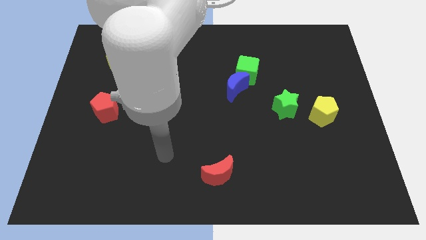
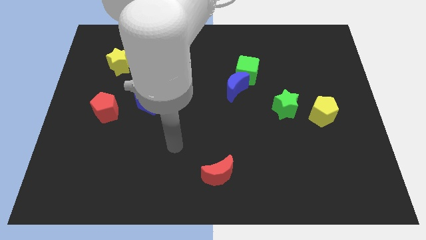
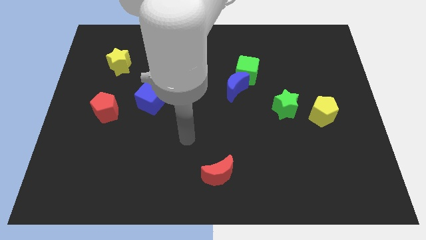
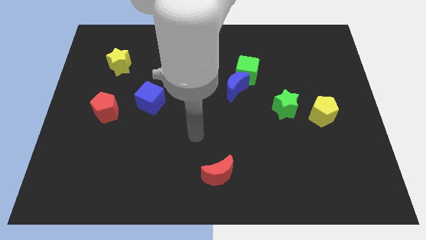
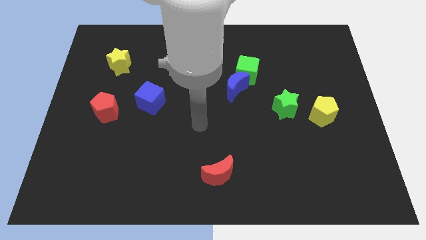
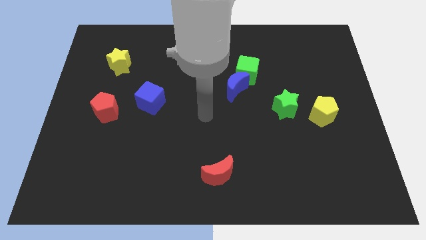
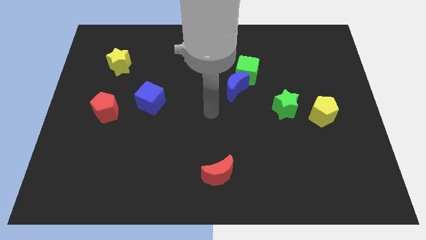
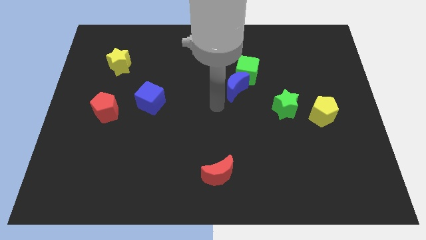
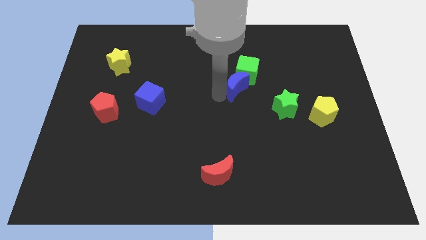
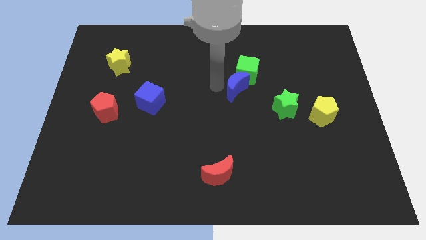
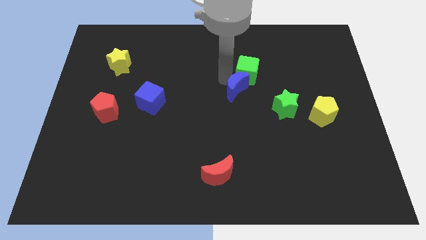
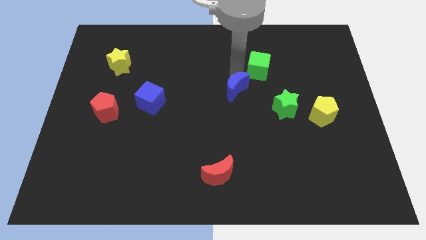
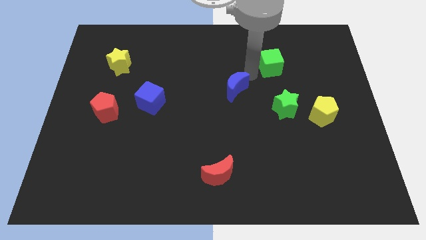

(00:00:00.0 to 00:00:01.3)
move the blue moon away from the green cube

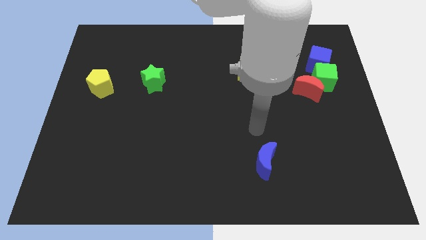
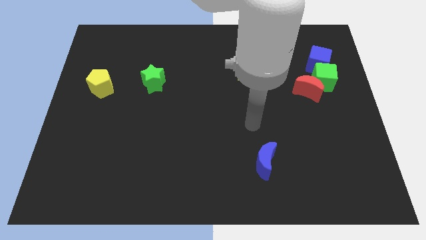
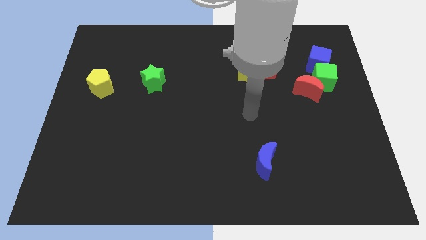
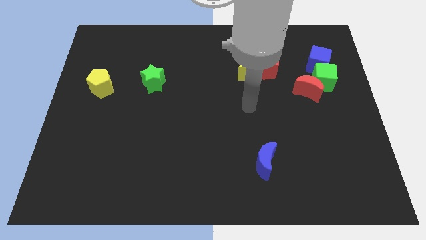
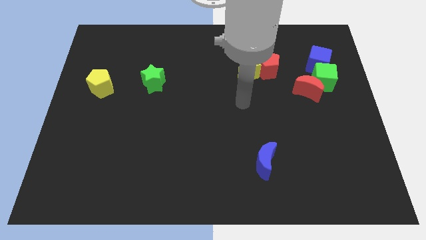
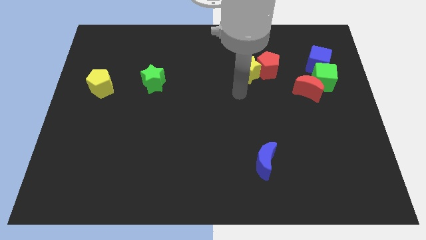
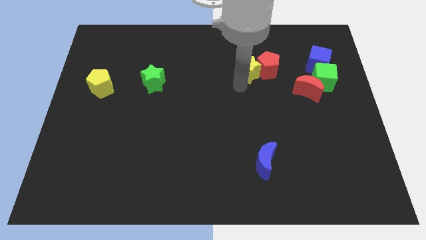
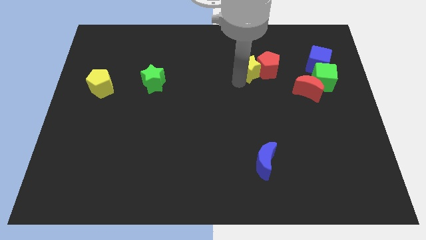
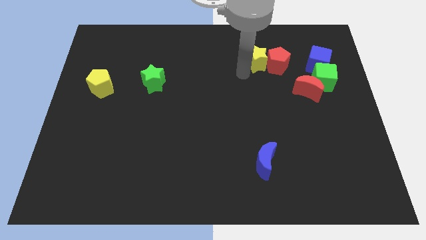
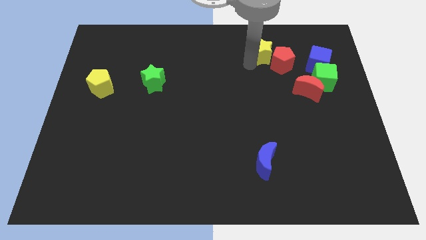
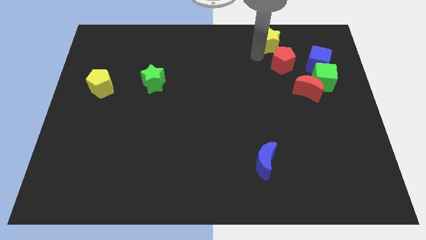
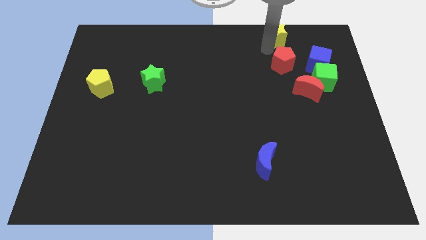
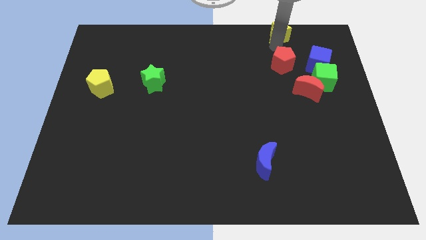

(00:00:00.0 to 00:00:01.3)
pull the red pentagon apart from the yellow star

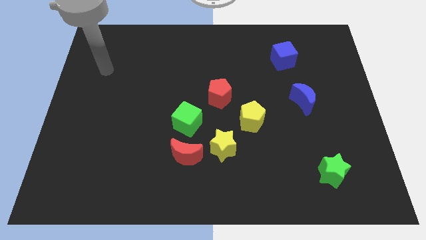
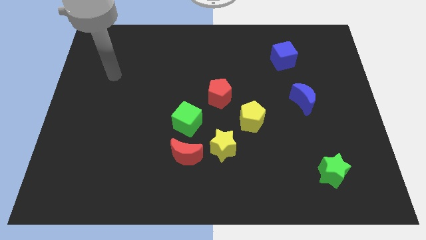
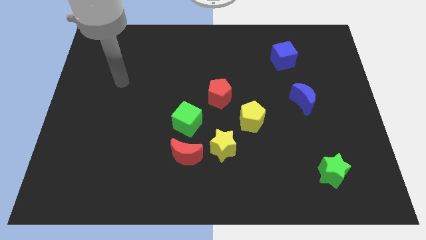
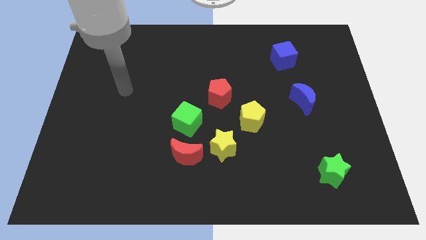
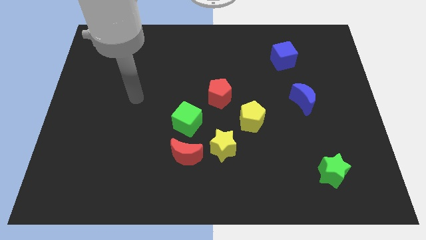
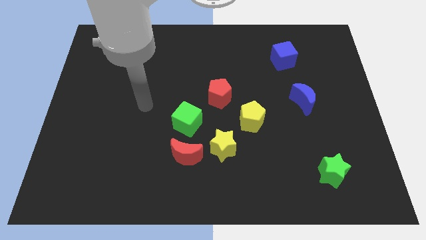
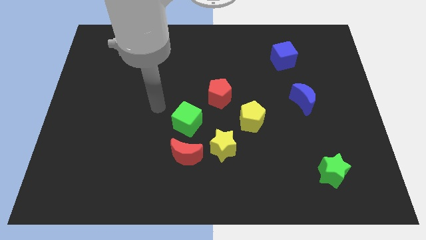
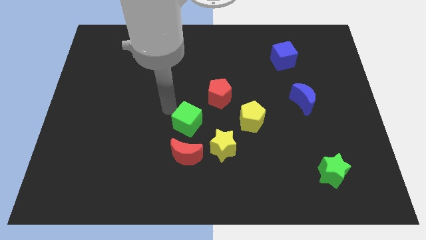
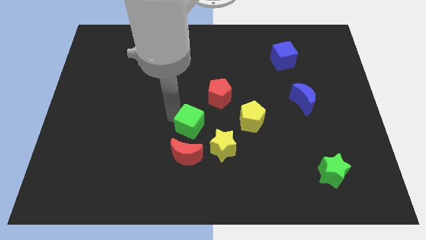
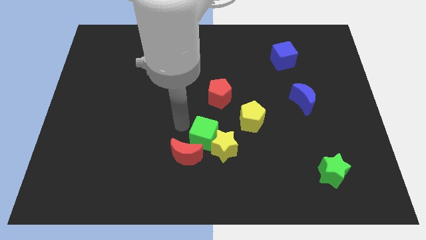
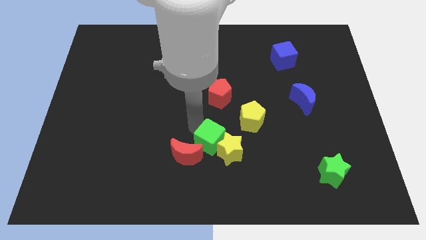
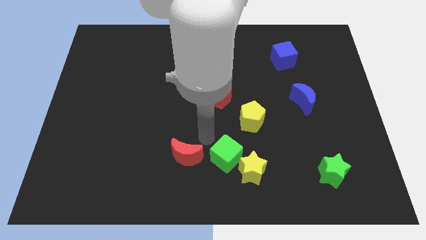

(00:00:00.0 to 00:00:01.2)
pull the red moon apart from the yellow star and green cube

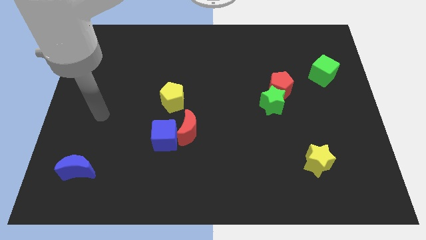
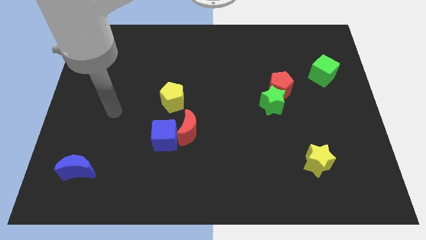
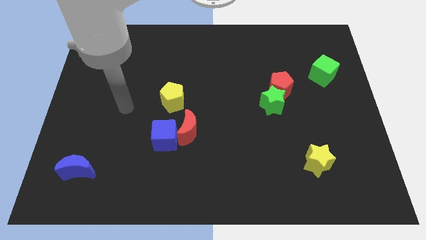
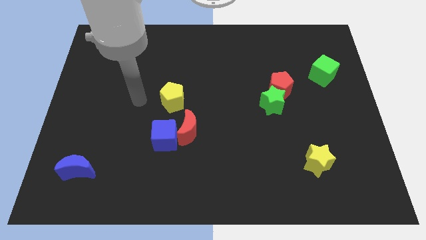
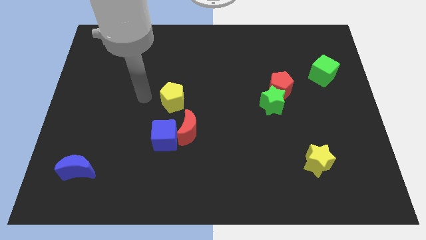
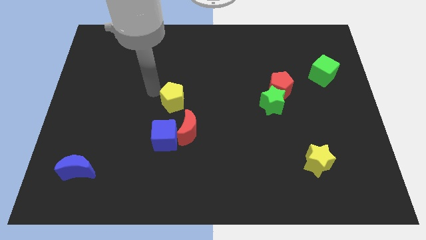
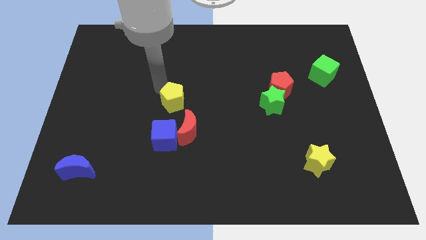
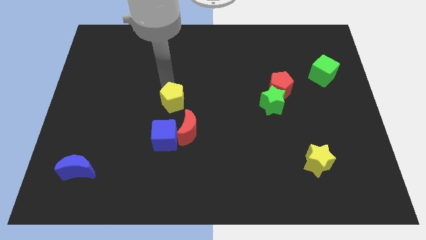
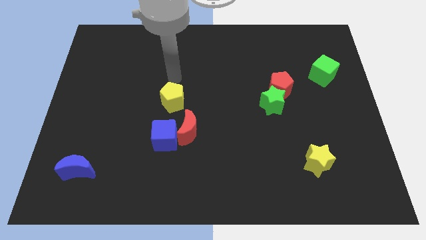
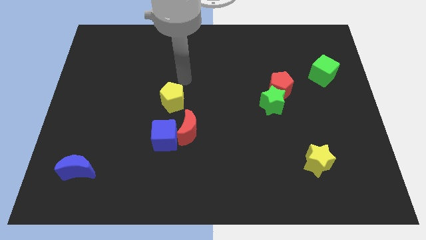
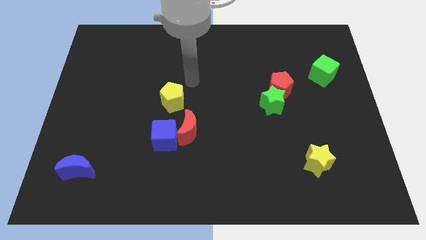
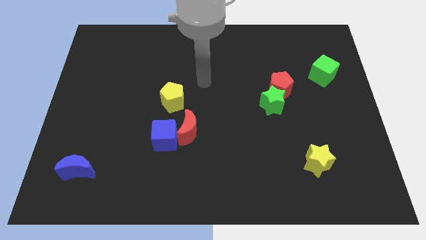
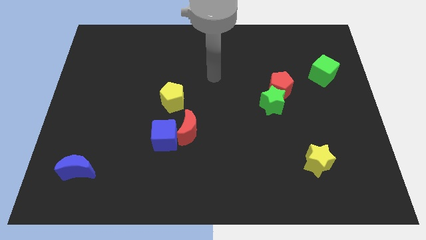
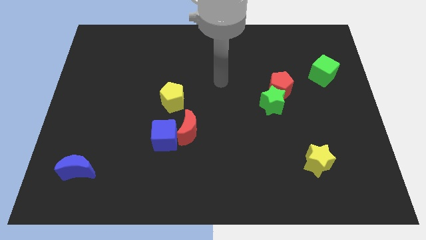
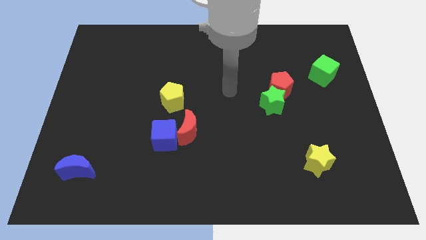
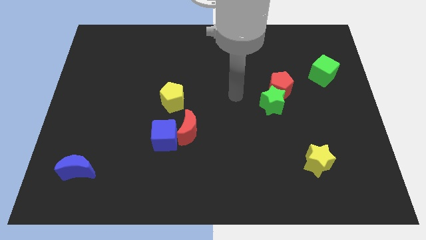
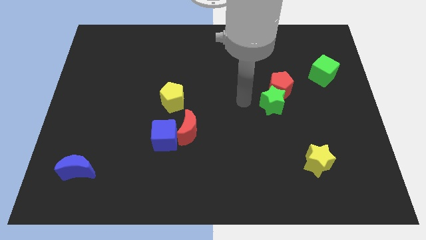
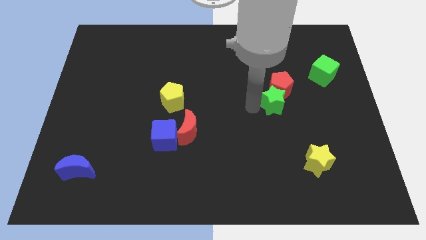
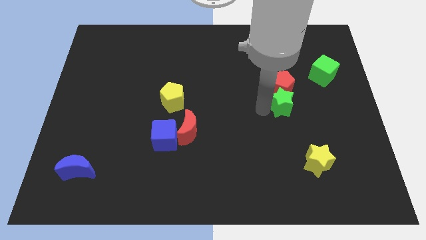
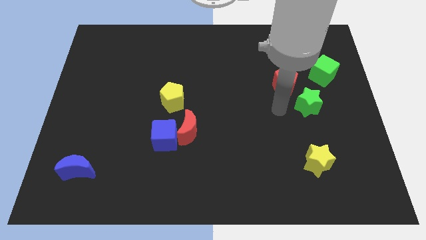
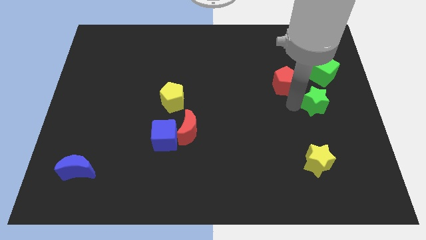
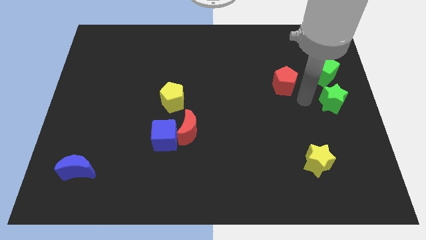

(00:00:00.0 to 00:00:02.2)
move the red pentagon away from the green star

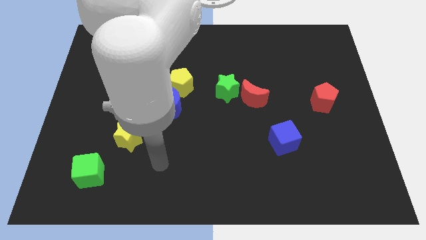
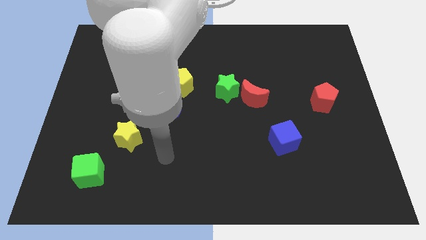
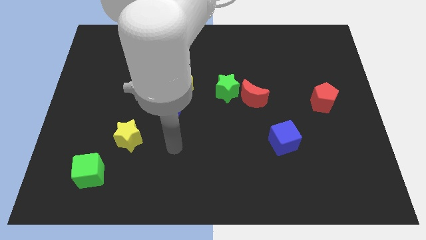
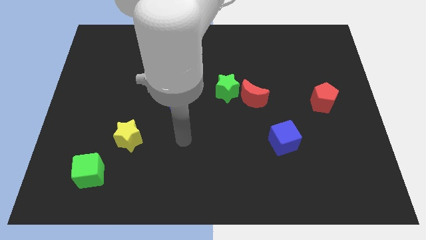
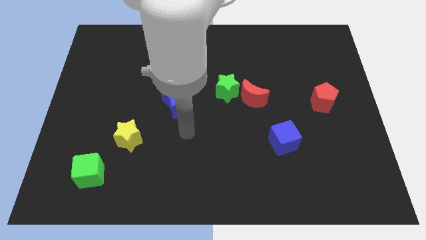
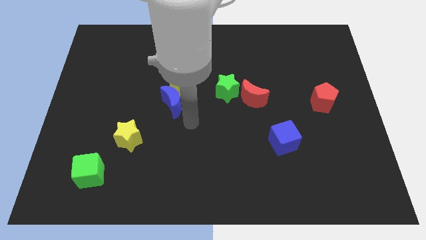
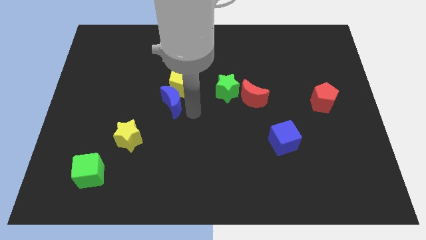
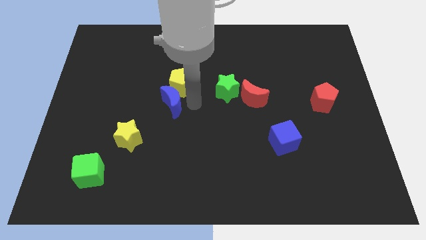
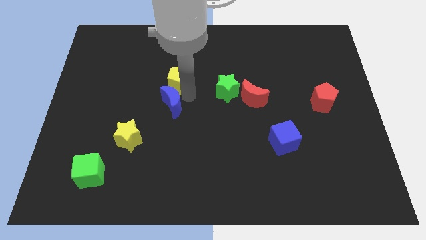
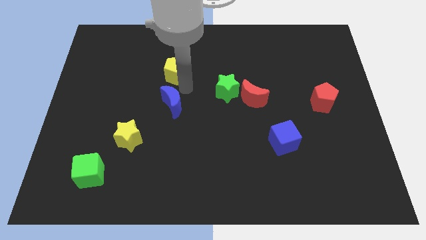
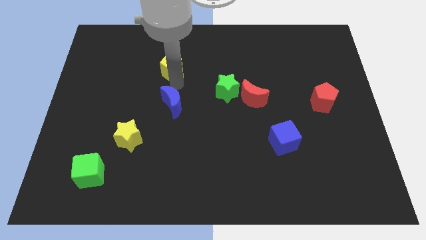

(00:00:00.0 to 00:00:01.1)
move the blue moon away from the yellow pentagon

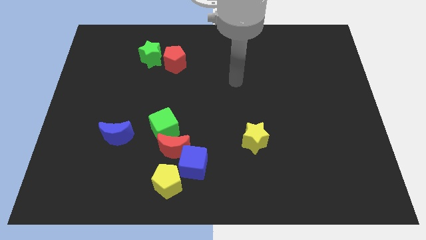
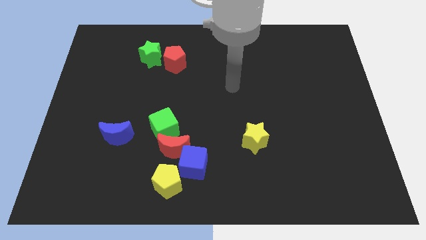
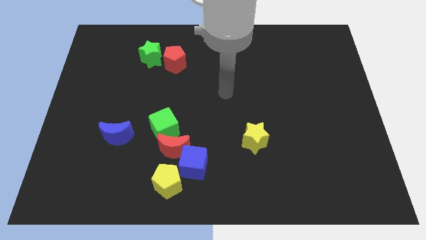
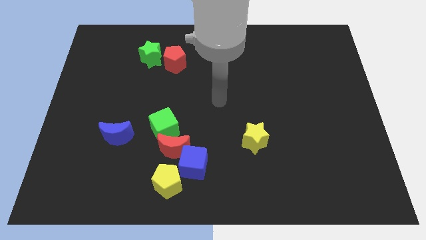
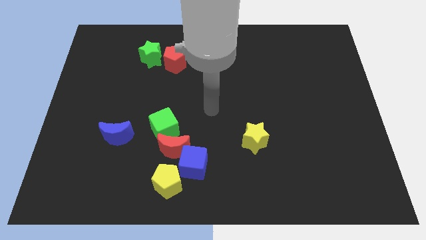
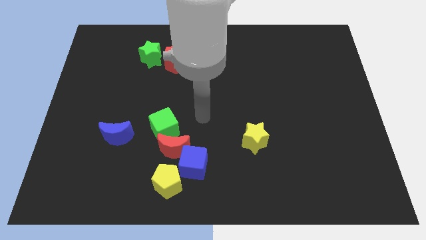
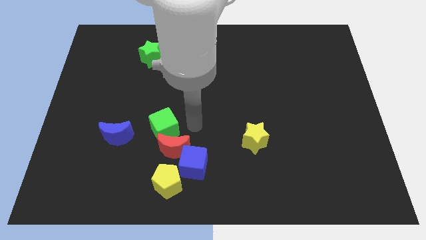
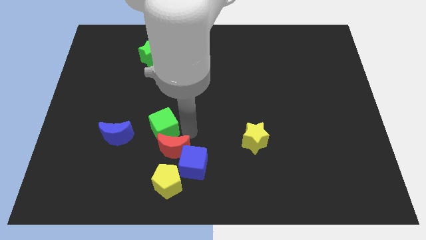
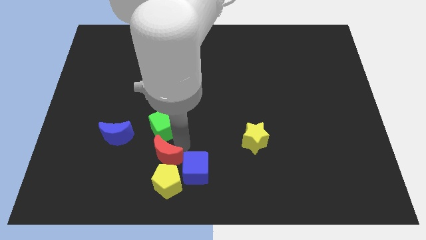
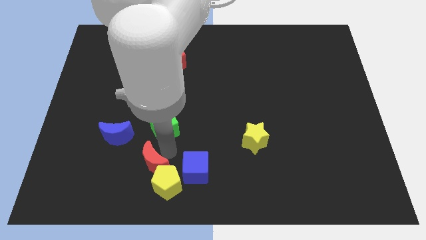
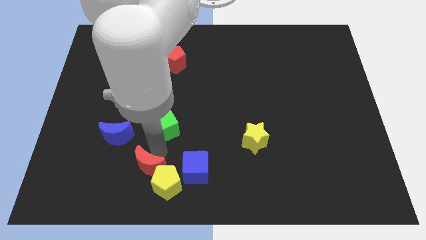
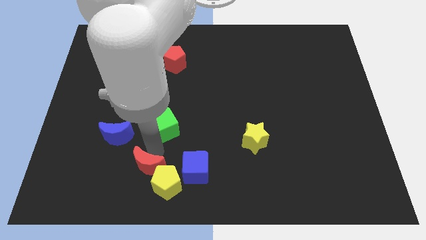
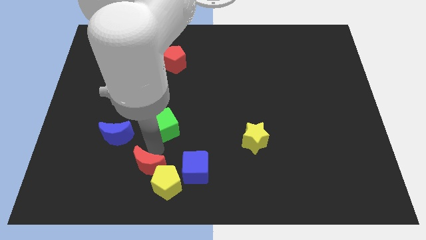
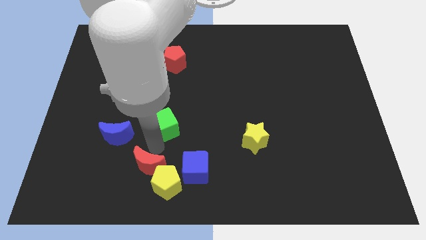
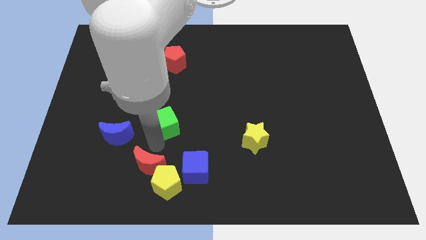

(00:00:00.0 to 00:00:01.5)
separate the green cube from the red moon

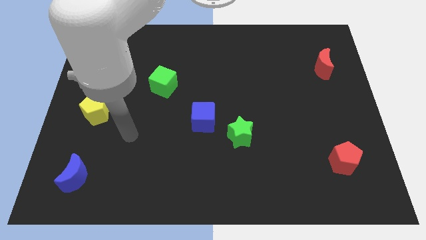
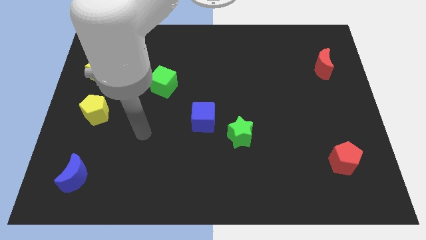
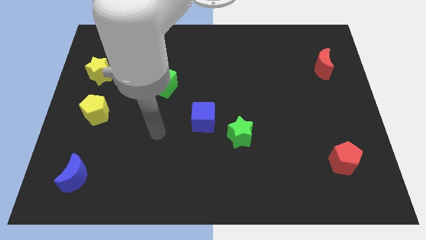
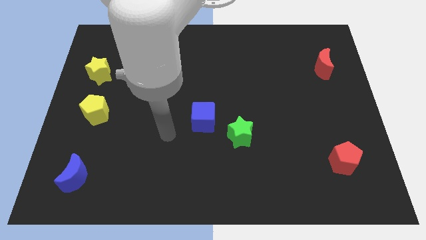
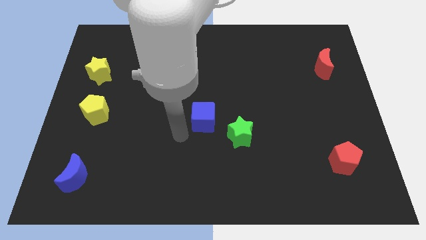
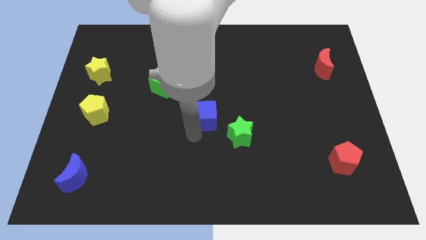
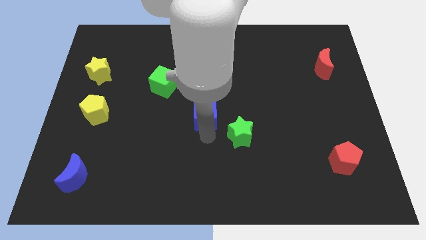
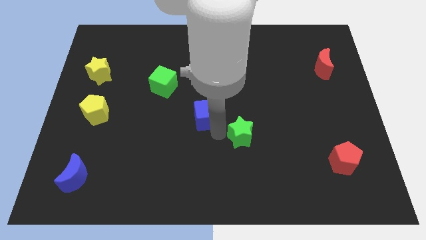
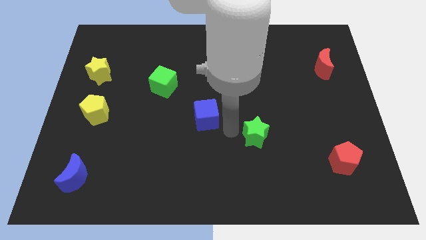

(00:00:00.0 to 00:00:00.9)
separate the blue cube from the green star
